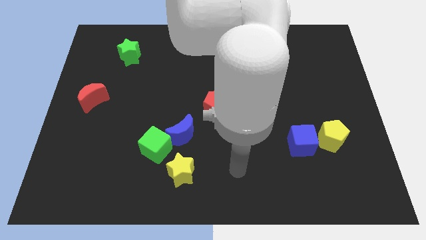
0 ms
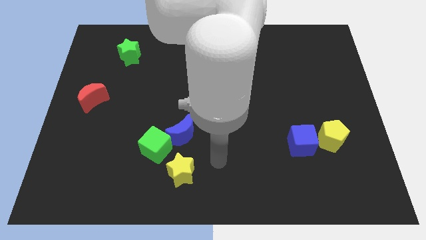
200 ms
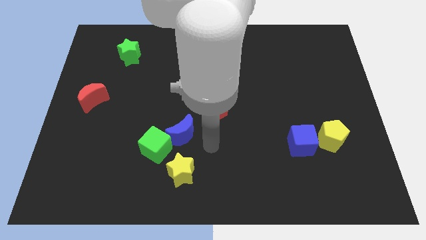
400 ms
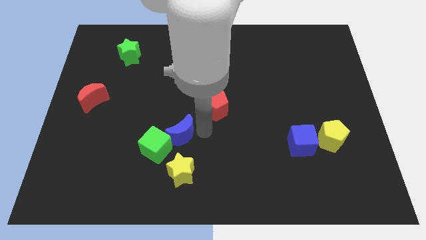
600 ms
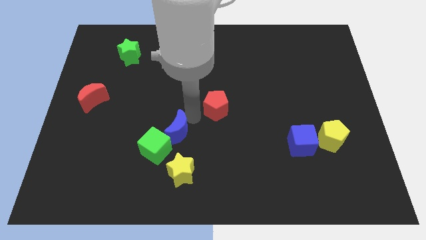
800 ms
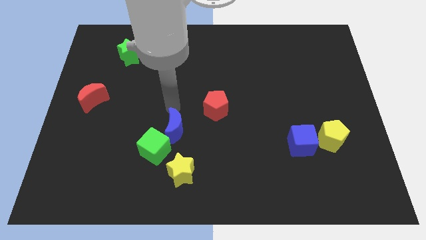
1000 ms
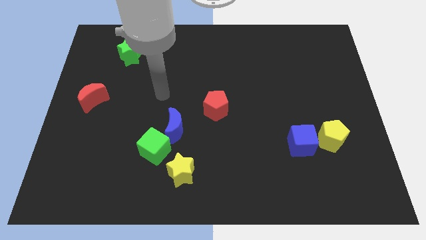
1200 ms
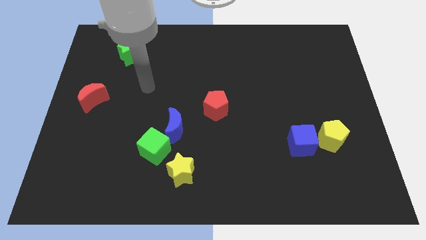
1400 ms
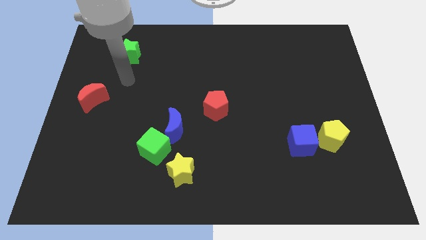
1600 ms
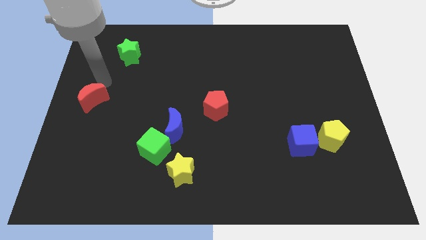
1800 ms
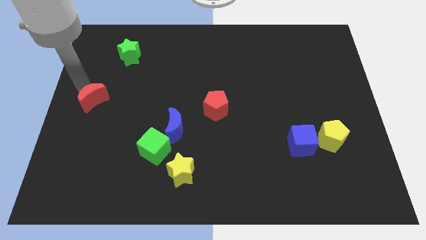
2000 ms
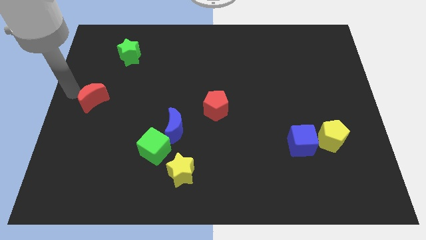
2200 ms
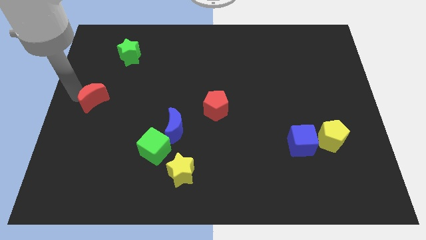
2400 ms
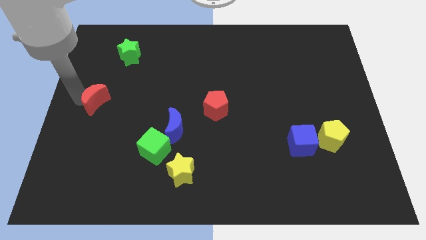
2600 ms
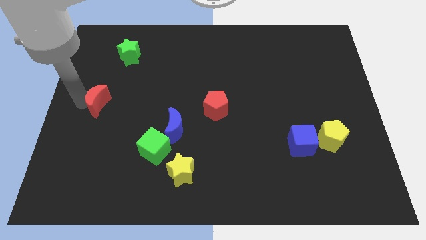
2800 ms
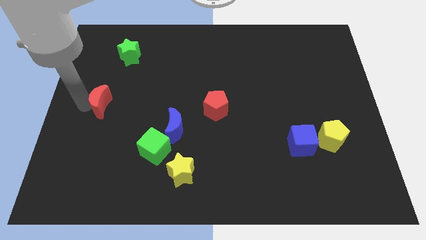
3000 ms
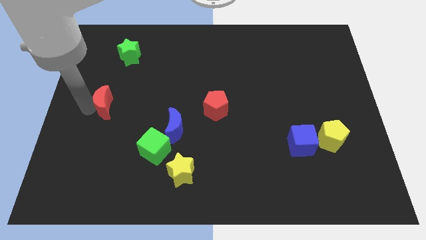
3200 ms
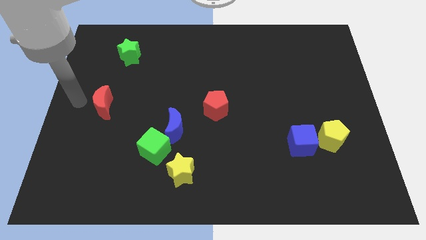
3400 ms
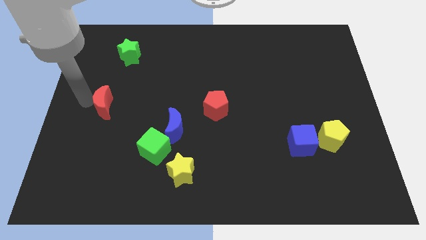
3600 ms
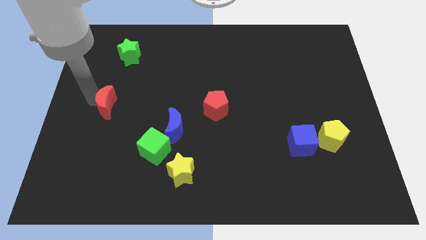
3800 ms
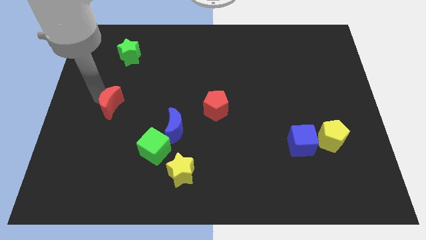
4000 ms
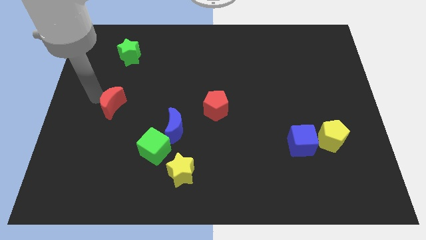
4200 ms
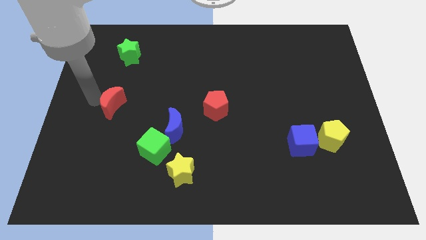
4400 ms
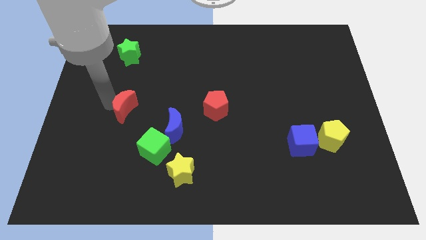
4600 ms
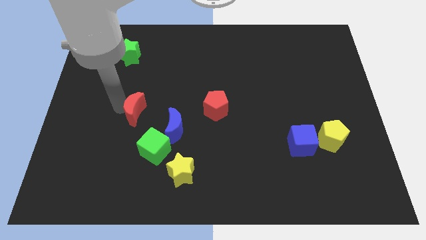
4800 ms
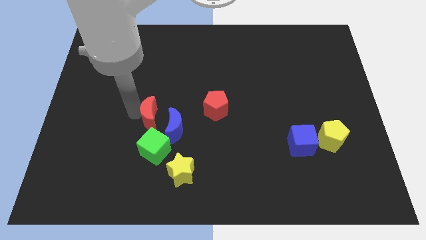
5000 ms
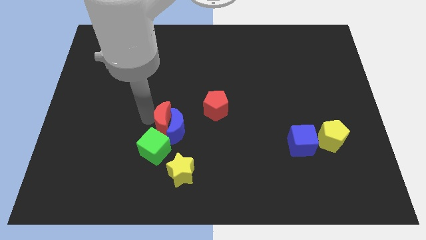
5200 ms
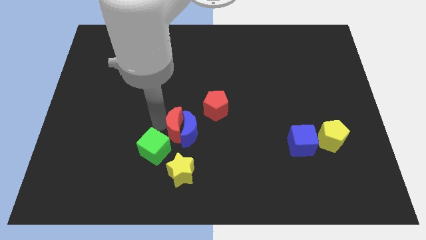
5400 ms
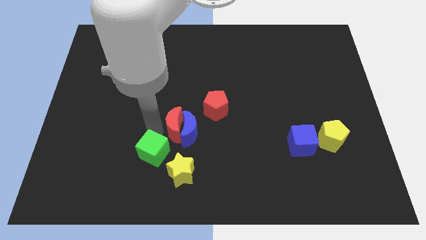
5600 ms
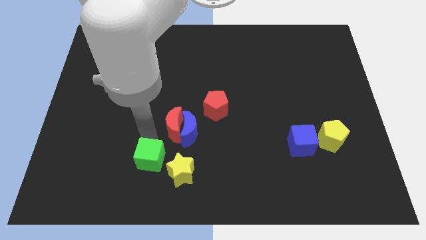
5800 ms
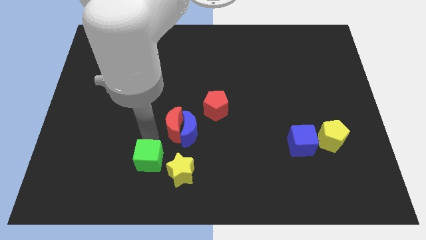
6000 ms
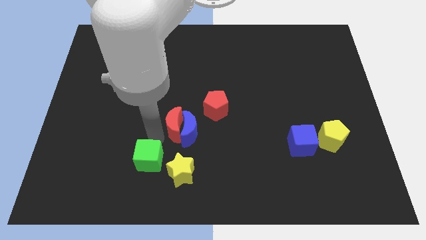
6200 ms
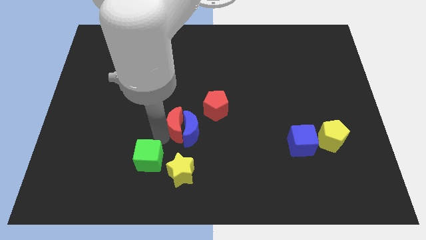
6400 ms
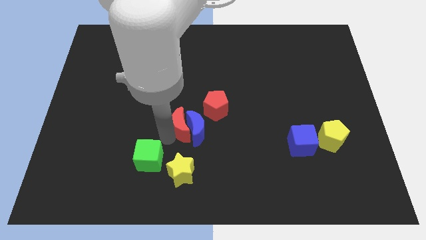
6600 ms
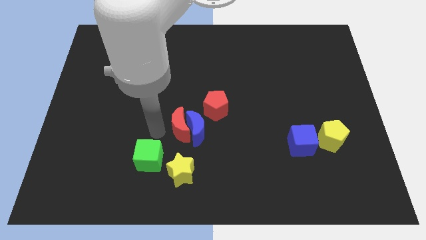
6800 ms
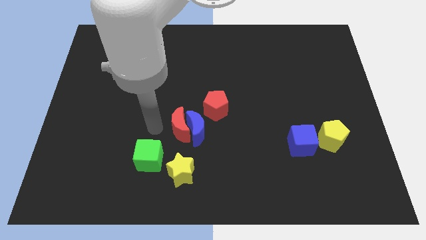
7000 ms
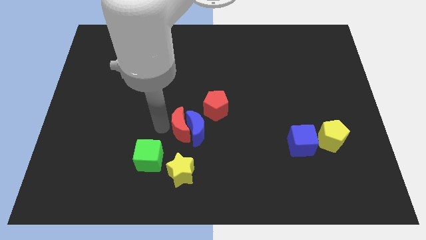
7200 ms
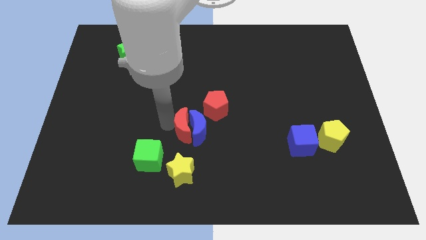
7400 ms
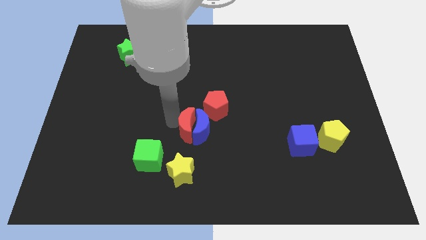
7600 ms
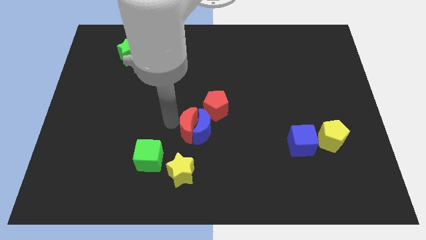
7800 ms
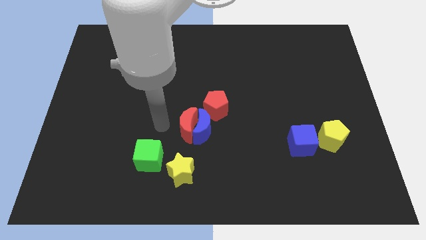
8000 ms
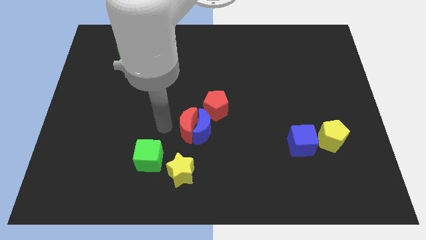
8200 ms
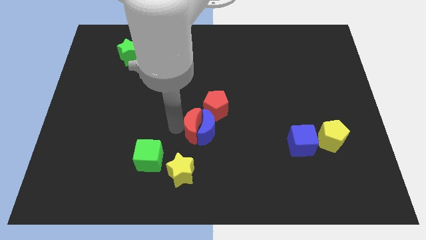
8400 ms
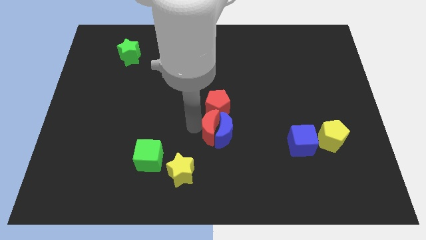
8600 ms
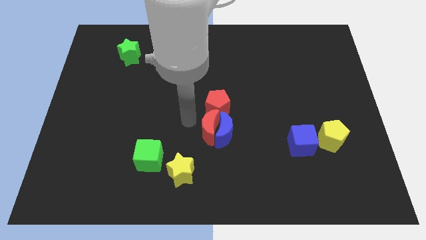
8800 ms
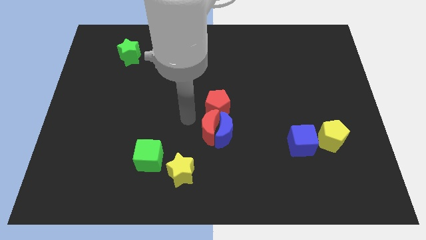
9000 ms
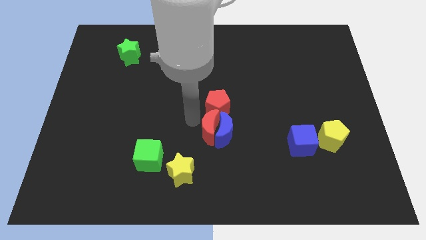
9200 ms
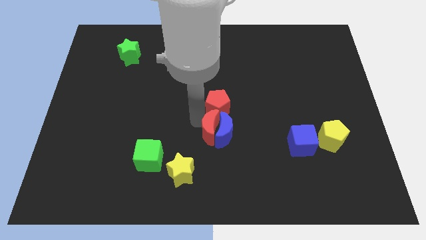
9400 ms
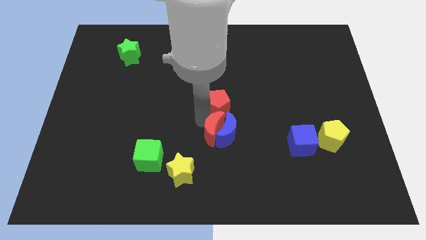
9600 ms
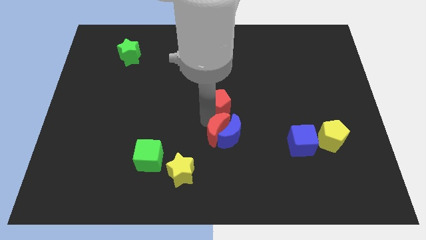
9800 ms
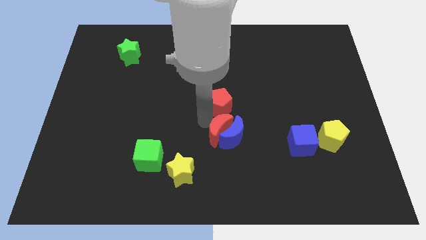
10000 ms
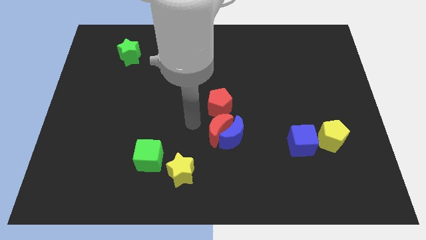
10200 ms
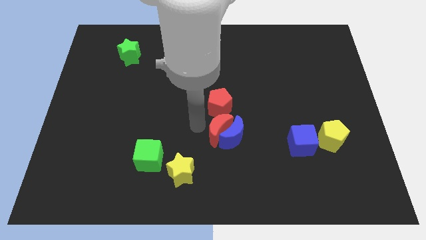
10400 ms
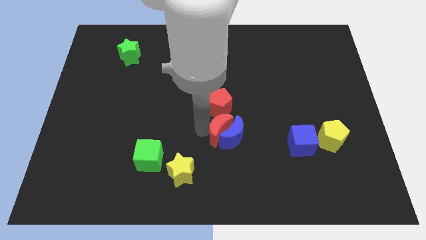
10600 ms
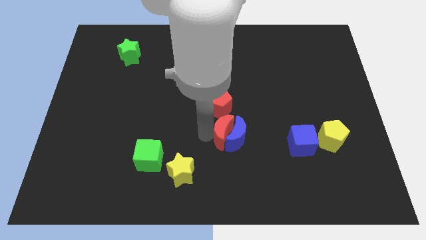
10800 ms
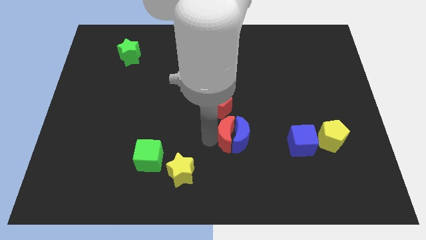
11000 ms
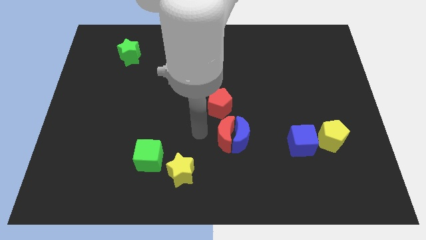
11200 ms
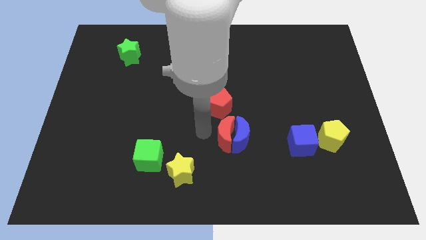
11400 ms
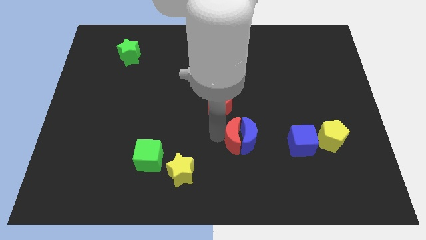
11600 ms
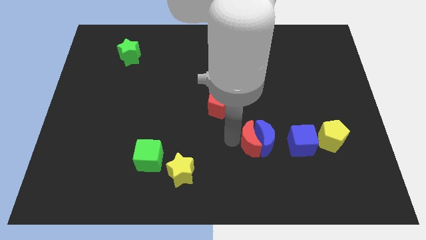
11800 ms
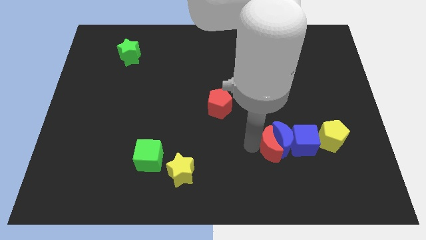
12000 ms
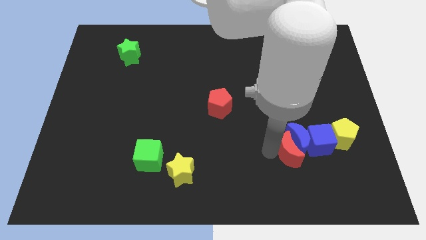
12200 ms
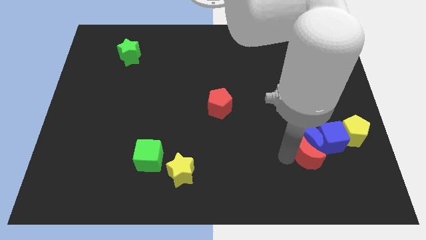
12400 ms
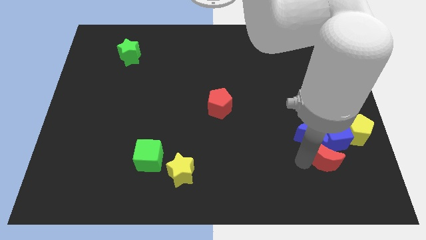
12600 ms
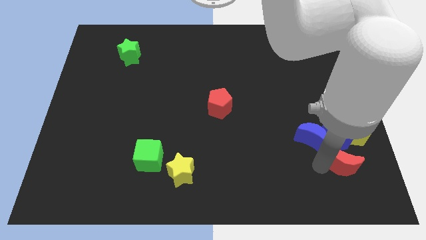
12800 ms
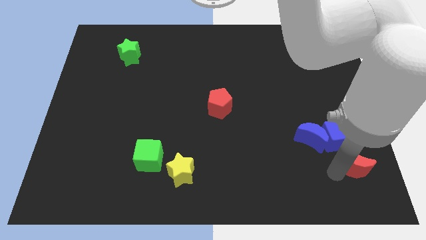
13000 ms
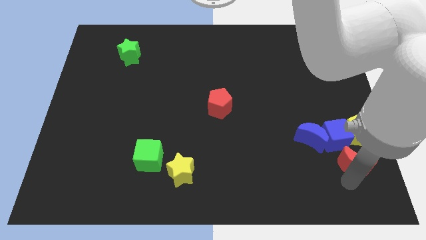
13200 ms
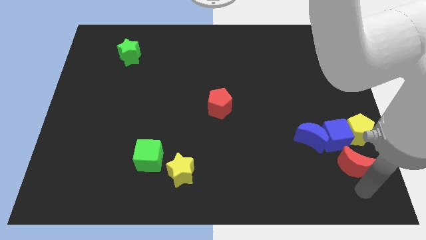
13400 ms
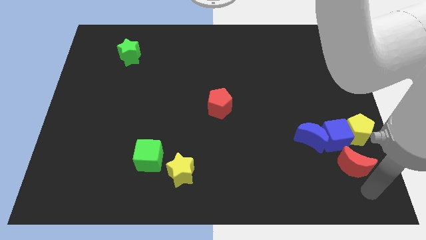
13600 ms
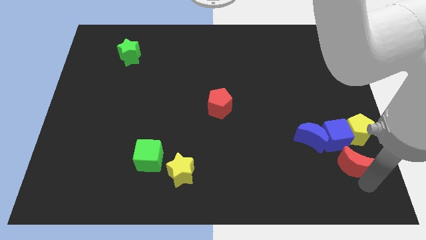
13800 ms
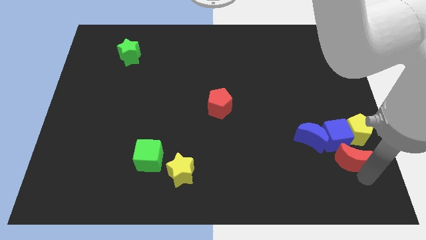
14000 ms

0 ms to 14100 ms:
push the red moon next to the blue cube
